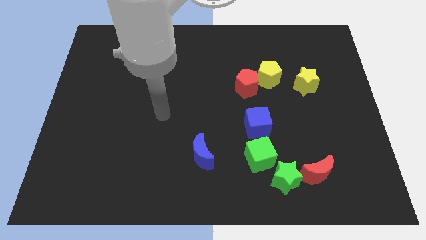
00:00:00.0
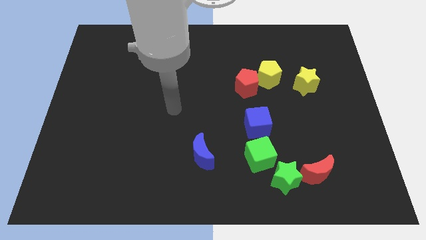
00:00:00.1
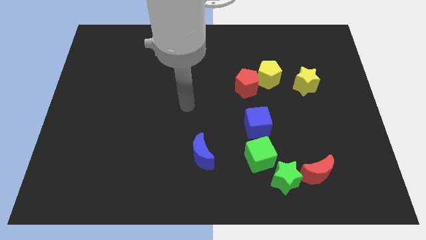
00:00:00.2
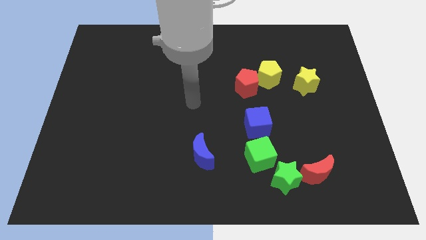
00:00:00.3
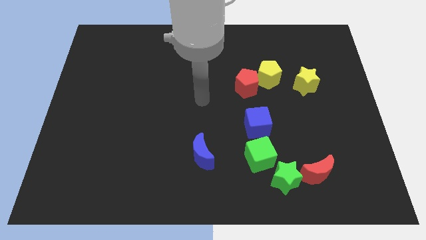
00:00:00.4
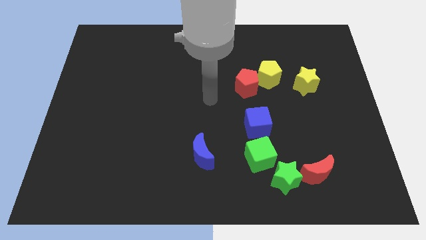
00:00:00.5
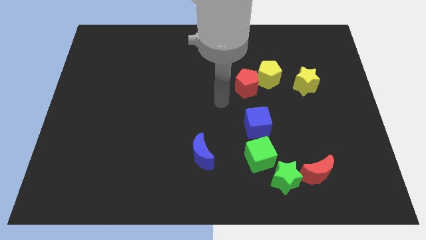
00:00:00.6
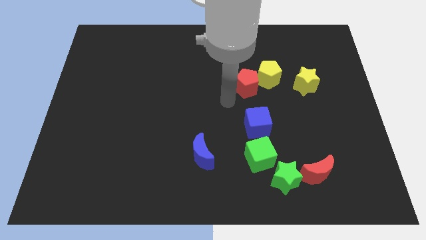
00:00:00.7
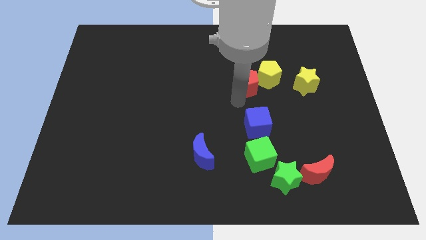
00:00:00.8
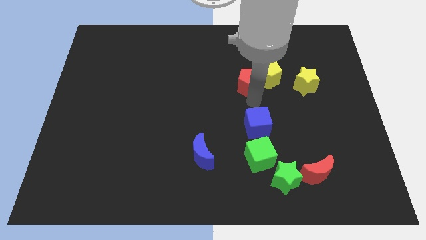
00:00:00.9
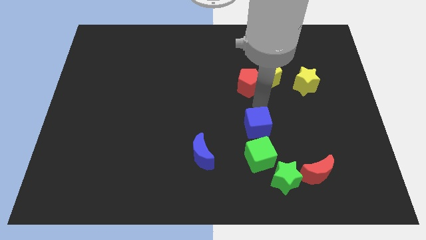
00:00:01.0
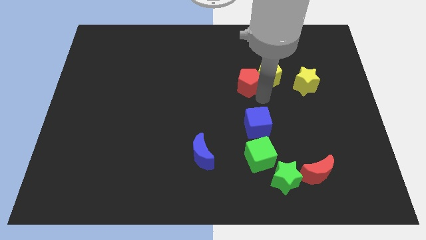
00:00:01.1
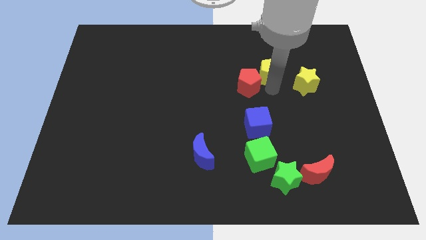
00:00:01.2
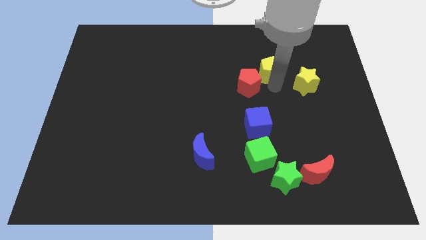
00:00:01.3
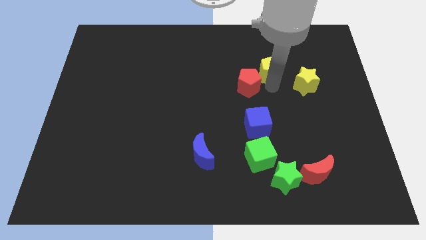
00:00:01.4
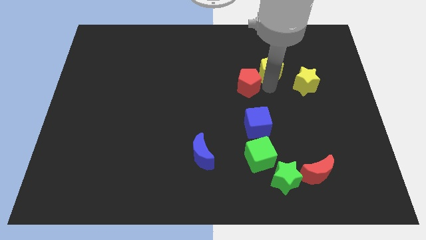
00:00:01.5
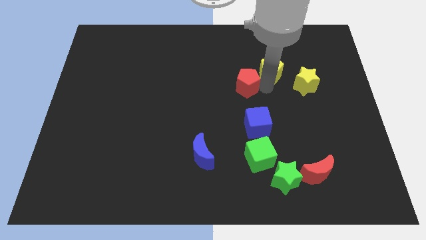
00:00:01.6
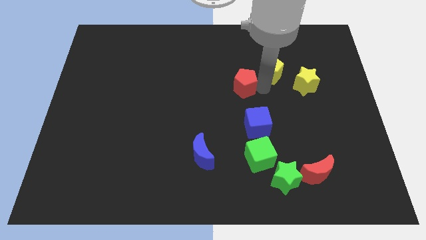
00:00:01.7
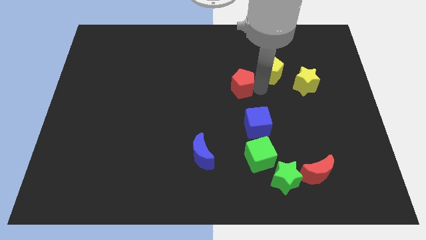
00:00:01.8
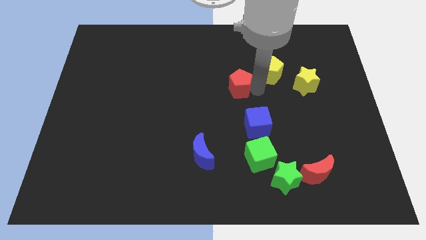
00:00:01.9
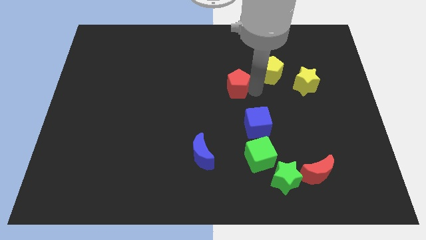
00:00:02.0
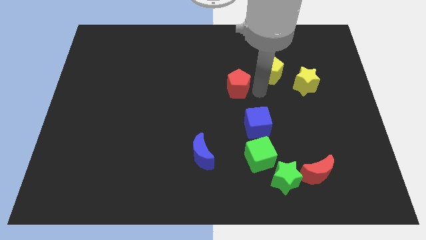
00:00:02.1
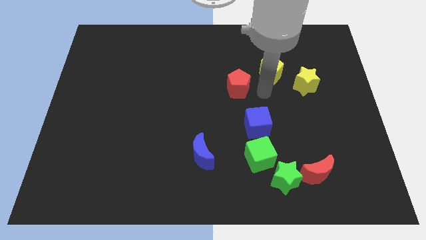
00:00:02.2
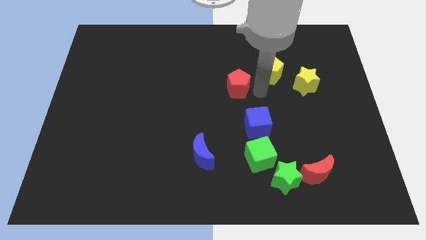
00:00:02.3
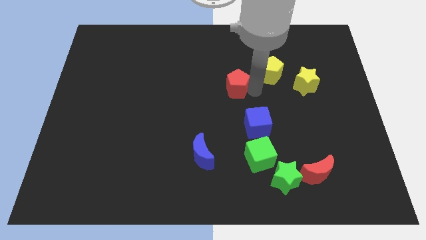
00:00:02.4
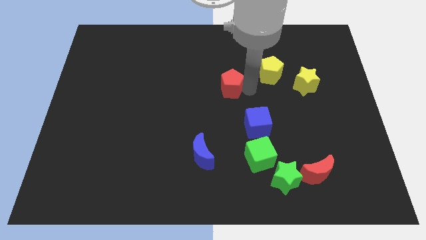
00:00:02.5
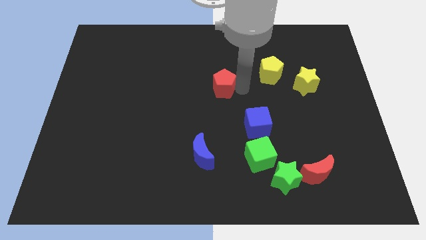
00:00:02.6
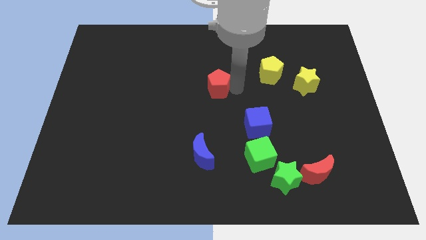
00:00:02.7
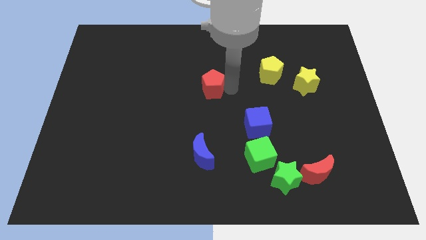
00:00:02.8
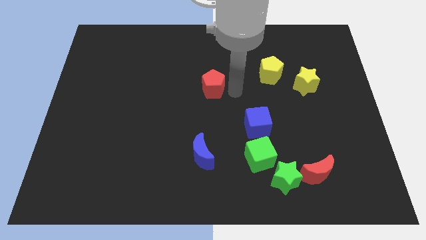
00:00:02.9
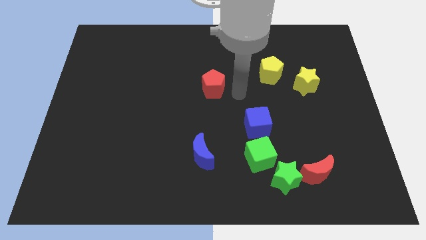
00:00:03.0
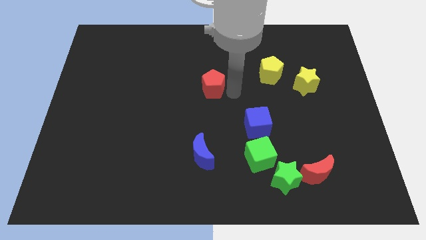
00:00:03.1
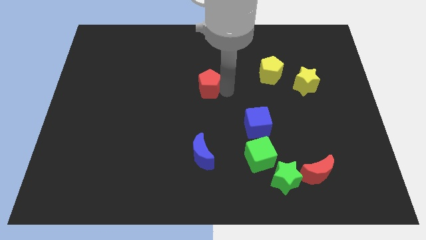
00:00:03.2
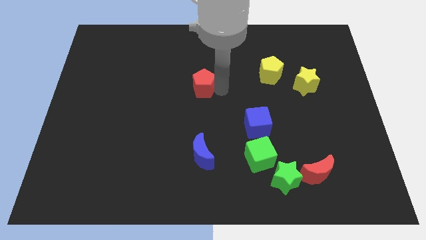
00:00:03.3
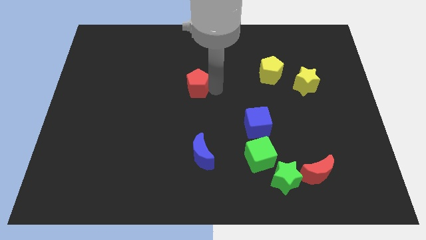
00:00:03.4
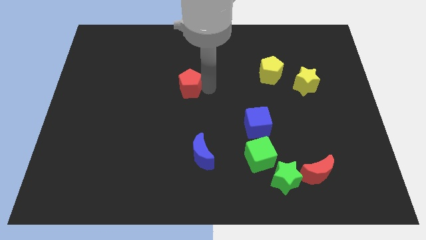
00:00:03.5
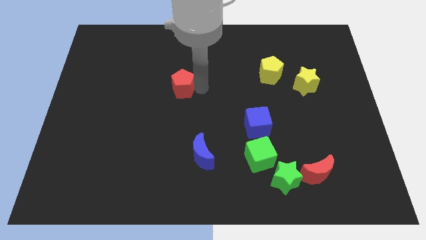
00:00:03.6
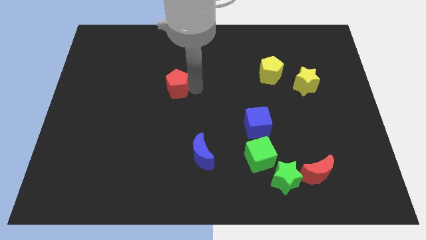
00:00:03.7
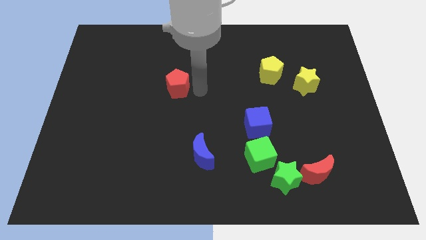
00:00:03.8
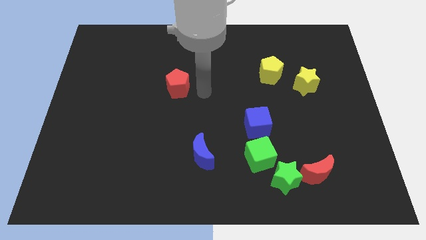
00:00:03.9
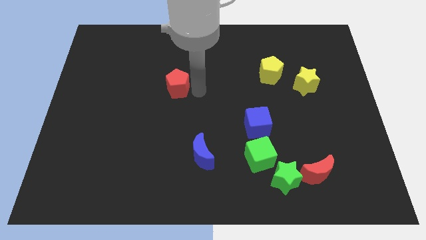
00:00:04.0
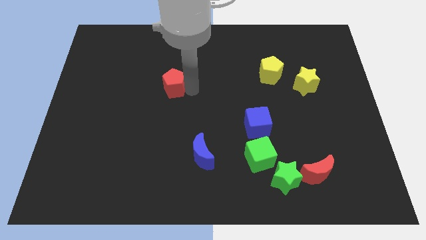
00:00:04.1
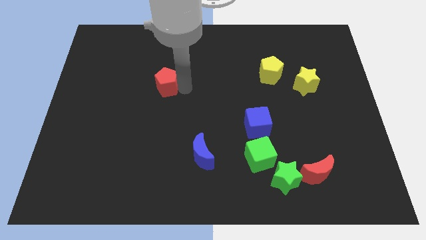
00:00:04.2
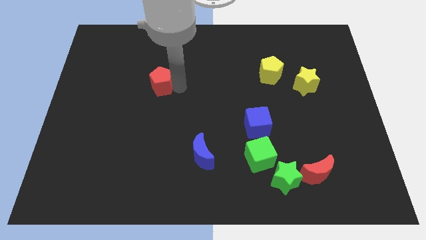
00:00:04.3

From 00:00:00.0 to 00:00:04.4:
move the red pentagon left

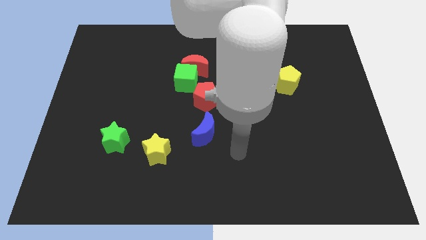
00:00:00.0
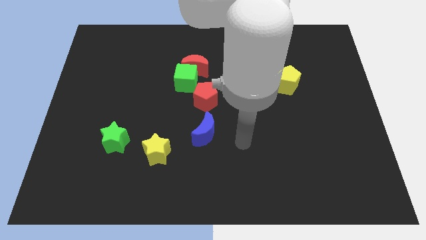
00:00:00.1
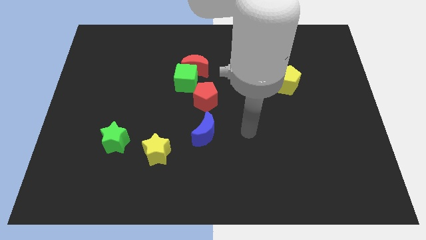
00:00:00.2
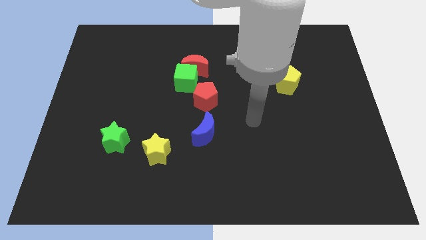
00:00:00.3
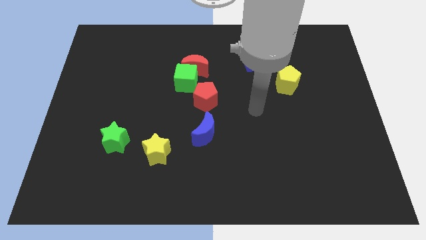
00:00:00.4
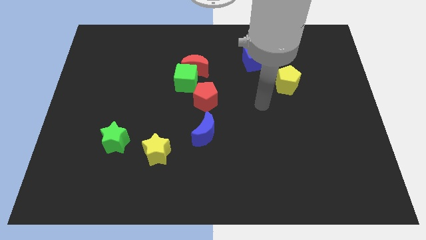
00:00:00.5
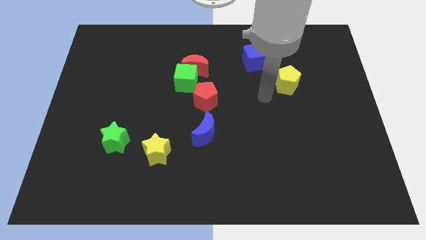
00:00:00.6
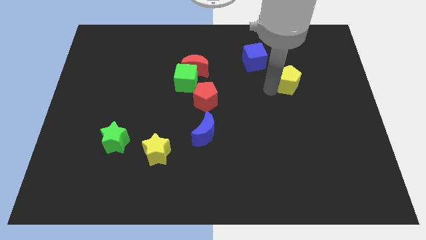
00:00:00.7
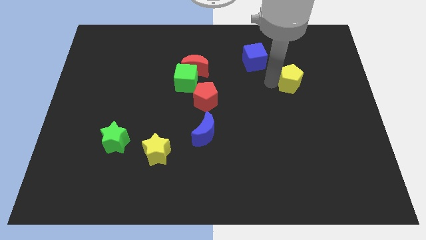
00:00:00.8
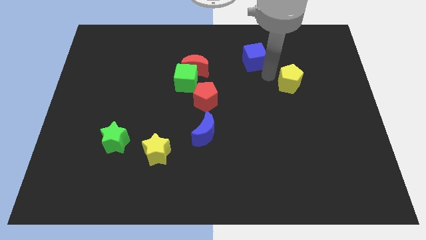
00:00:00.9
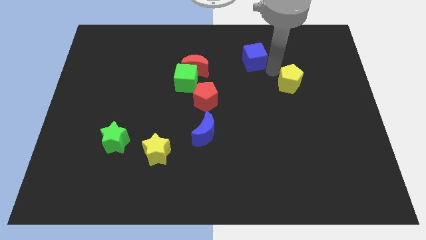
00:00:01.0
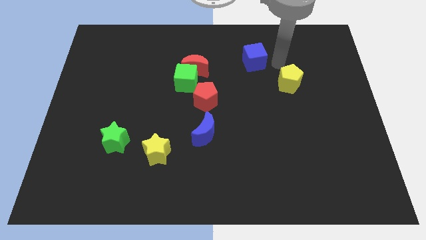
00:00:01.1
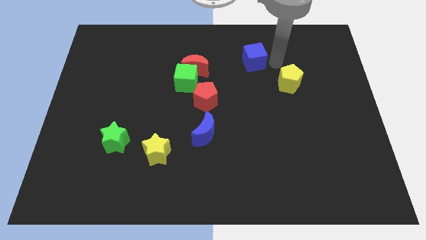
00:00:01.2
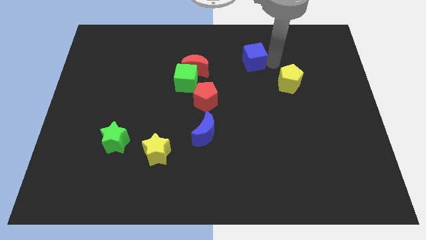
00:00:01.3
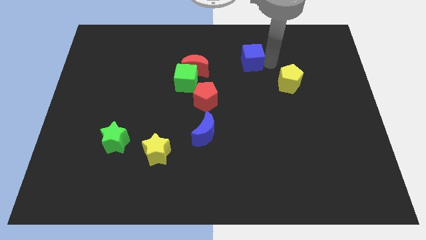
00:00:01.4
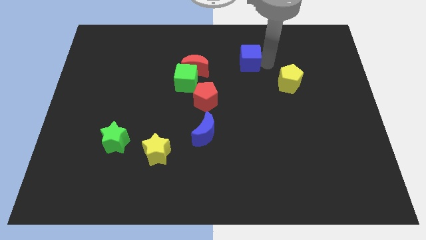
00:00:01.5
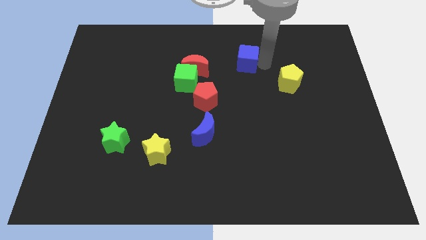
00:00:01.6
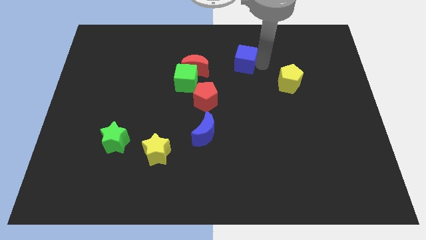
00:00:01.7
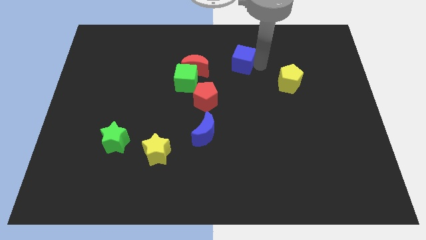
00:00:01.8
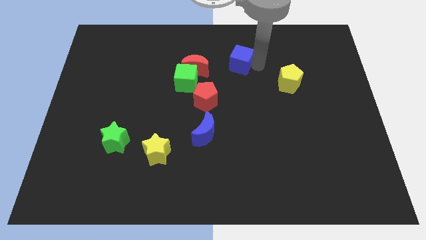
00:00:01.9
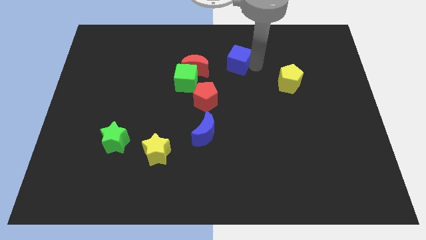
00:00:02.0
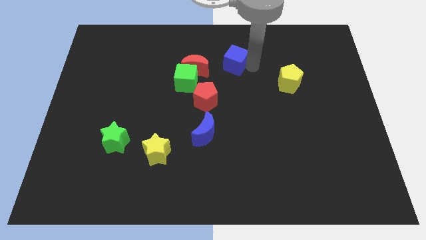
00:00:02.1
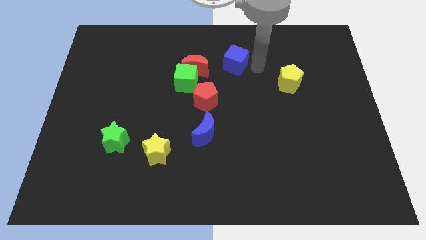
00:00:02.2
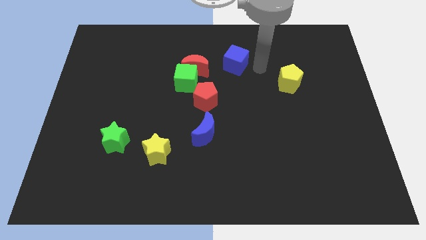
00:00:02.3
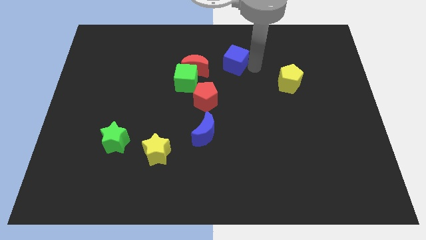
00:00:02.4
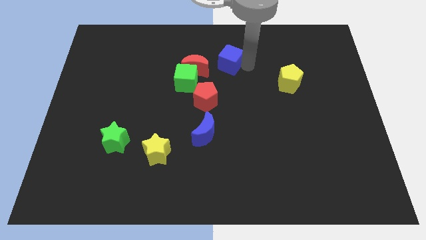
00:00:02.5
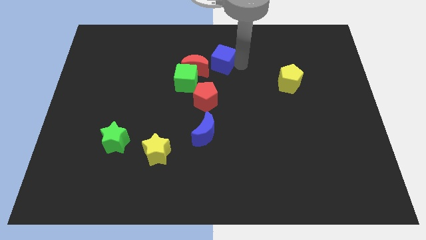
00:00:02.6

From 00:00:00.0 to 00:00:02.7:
push the blue cube to the left somewhat

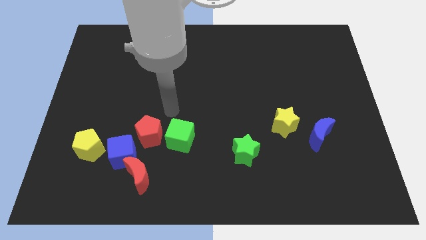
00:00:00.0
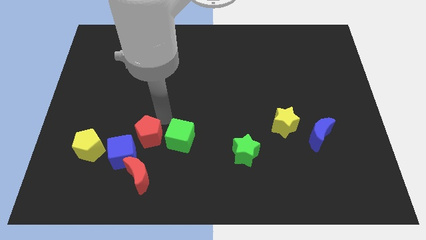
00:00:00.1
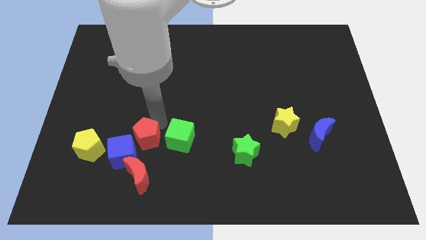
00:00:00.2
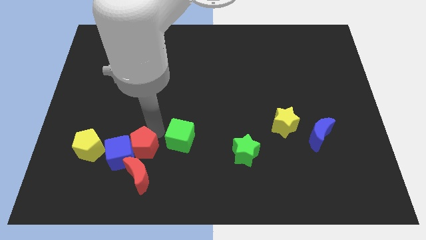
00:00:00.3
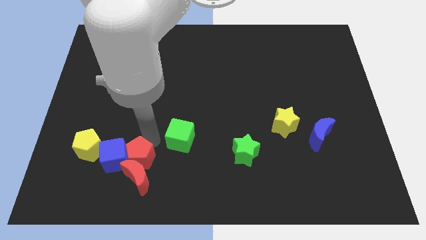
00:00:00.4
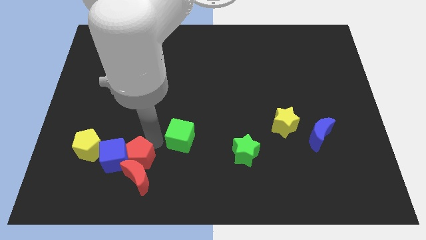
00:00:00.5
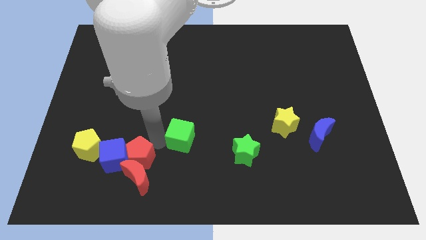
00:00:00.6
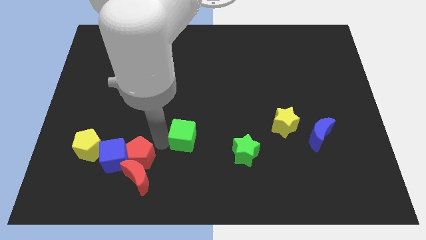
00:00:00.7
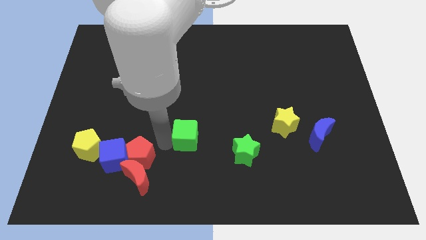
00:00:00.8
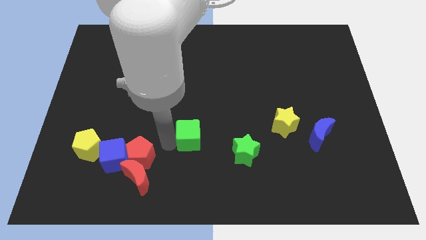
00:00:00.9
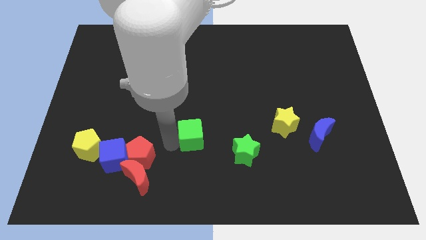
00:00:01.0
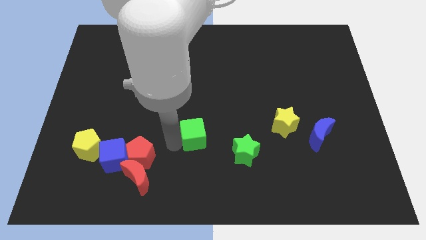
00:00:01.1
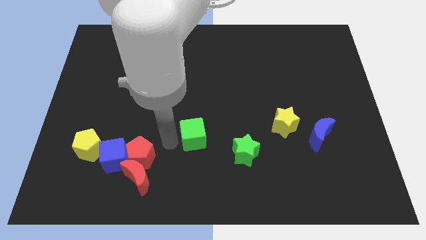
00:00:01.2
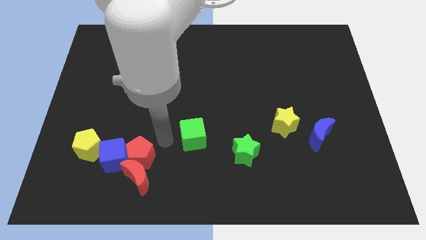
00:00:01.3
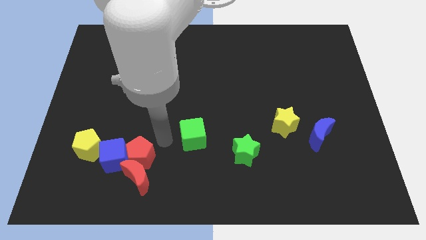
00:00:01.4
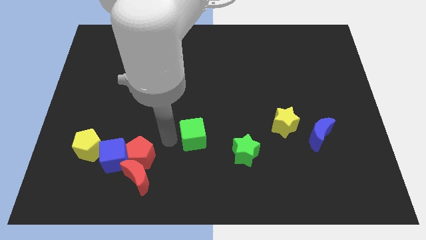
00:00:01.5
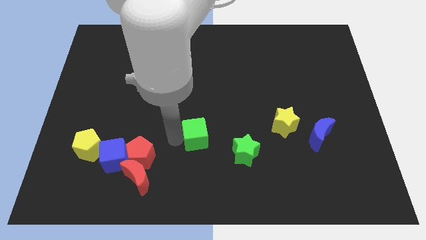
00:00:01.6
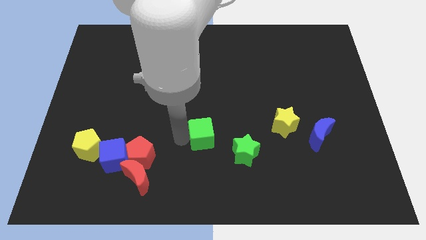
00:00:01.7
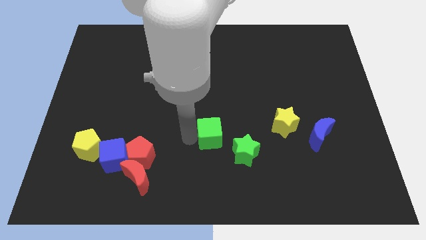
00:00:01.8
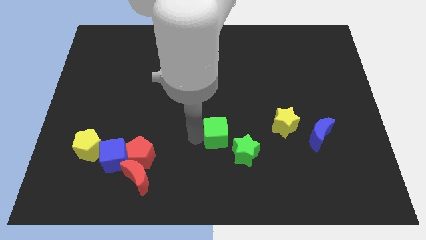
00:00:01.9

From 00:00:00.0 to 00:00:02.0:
push the green cube a little right
